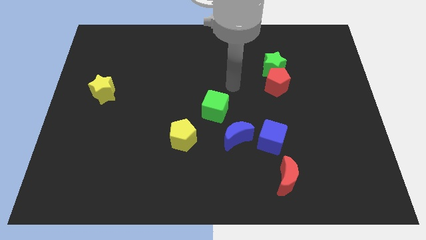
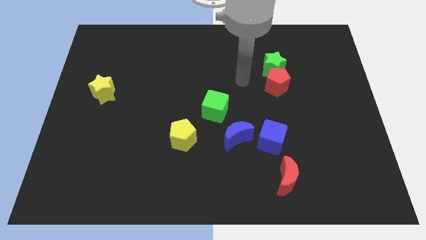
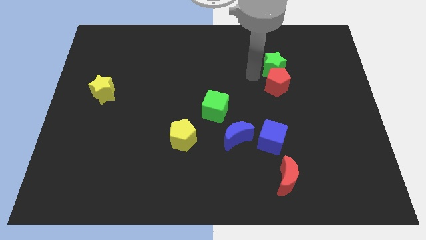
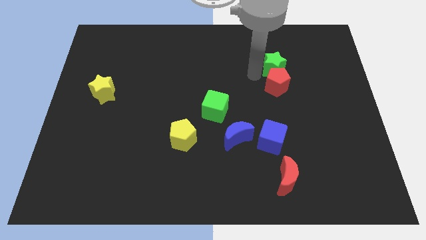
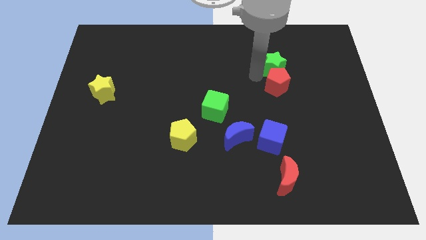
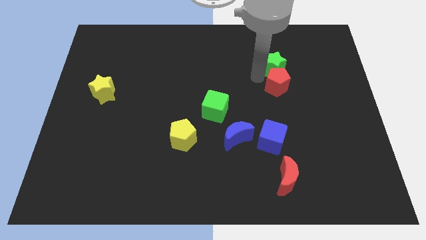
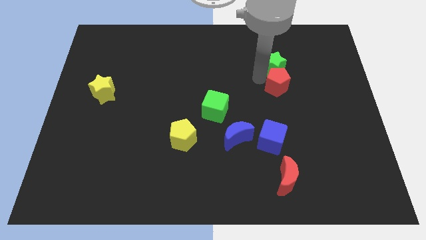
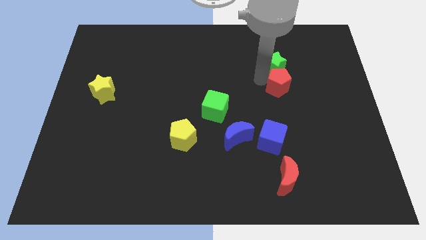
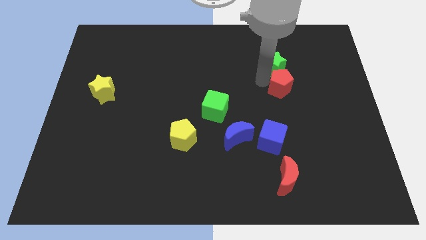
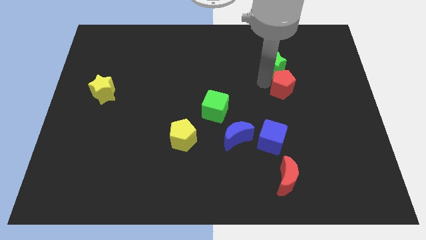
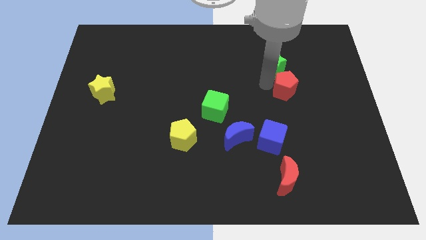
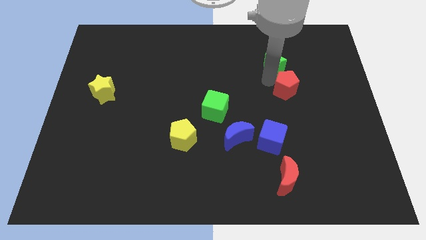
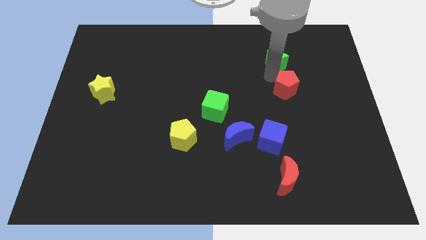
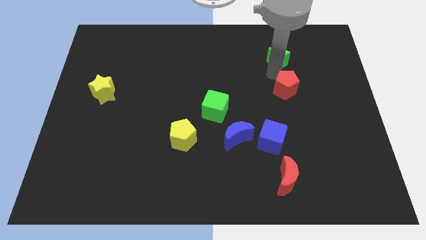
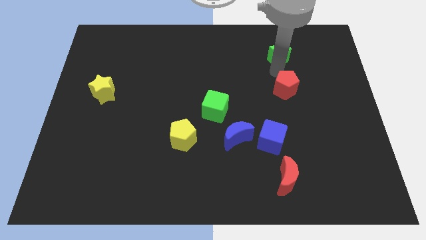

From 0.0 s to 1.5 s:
pull the red pentagon apart from the green star

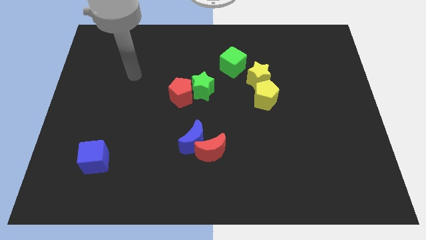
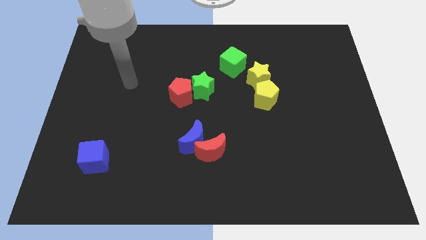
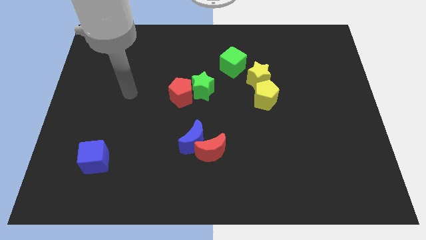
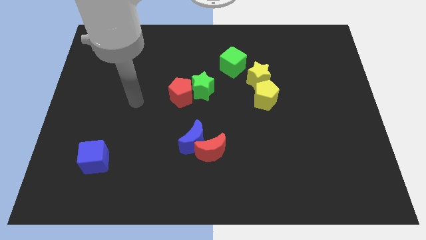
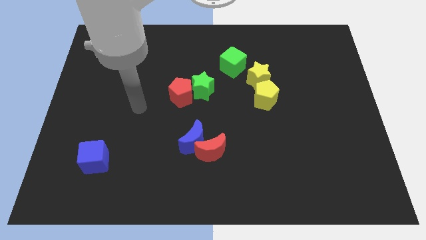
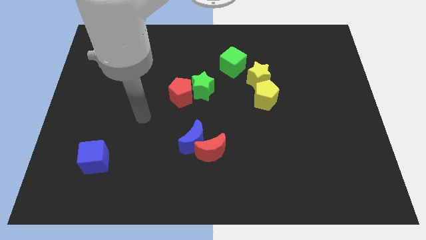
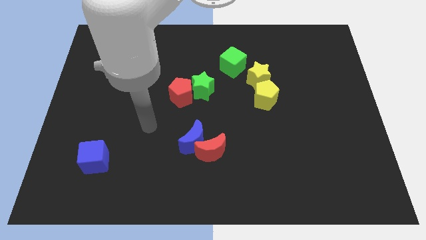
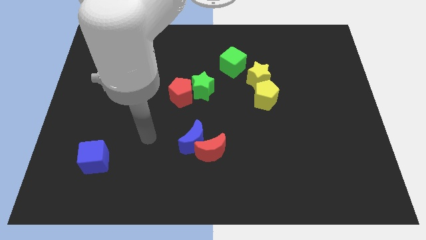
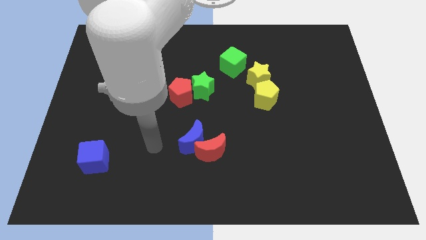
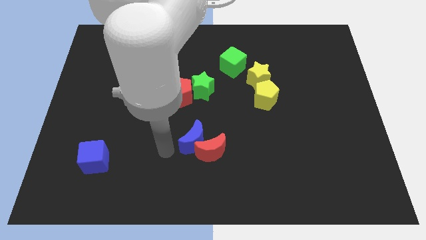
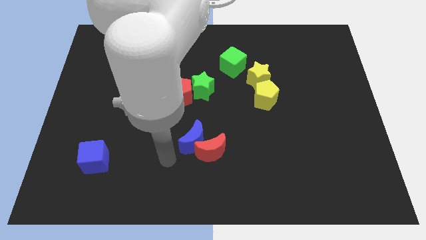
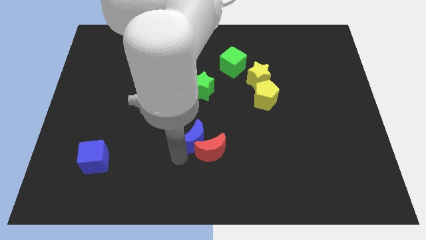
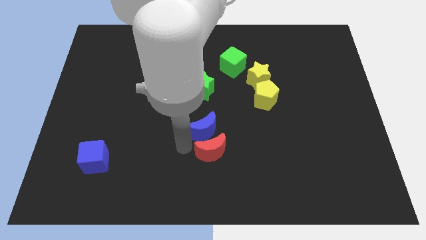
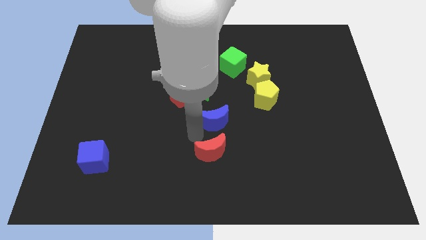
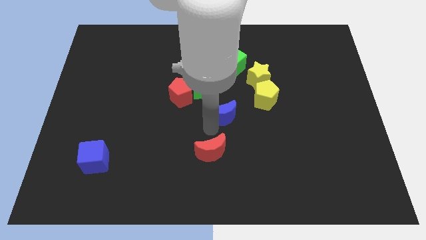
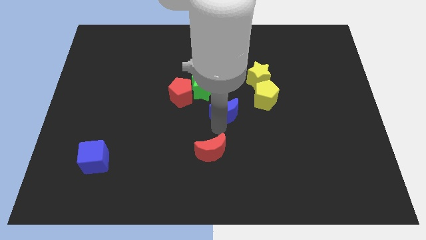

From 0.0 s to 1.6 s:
separate the red moon from the blue moon

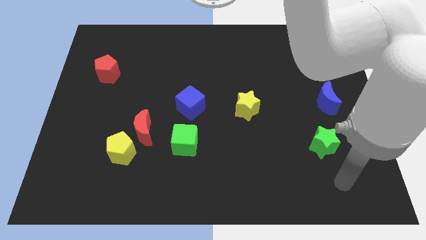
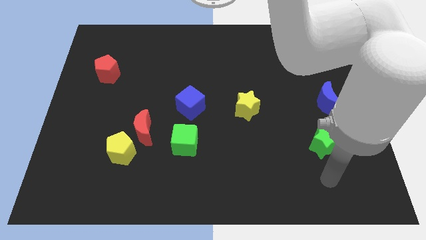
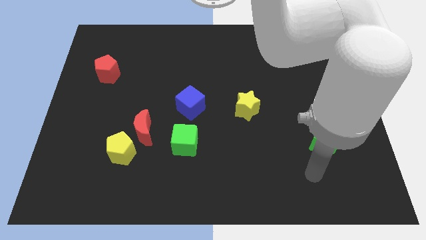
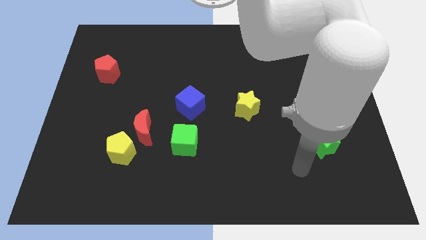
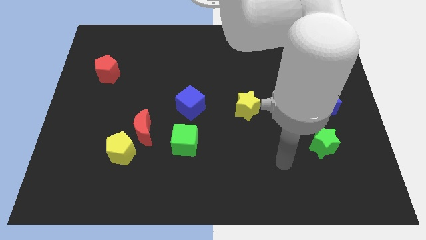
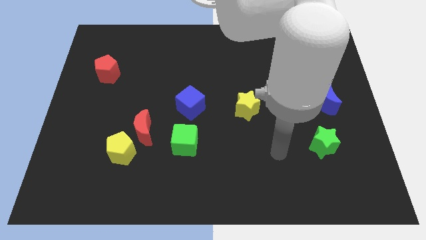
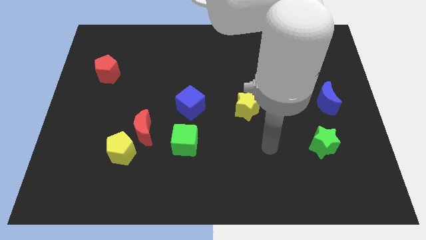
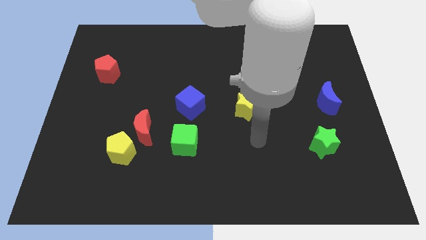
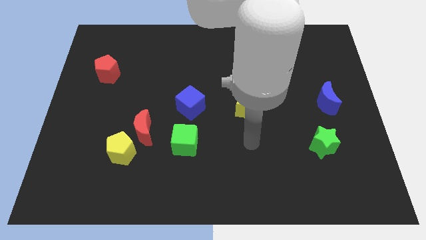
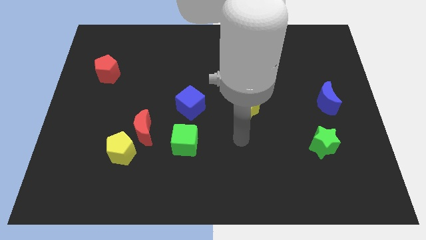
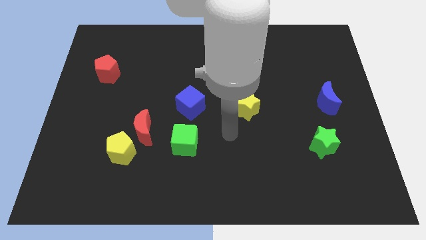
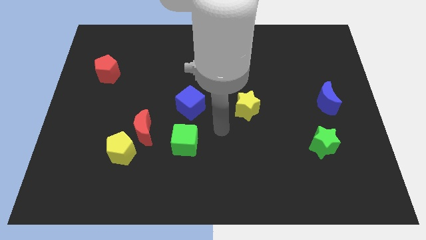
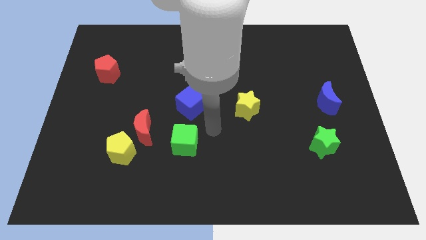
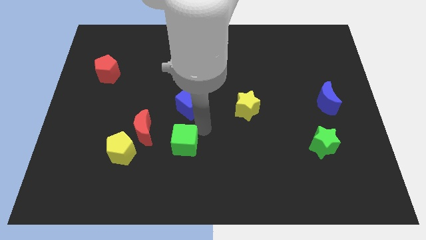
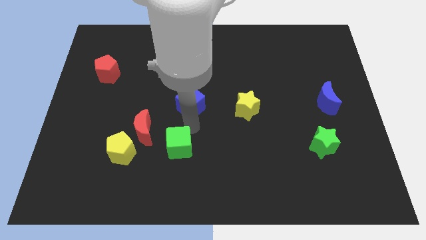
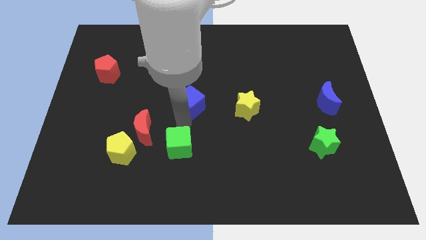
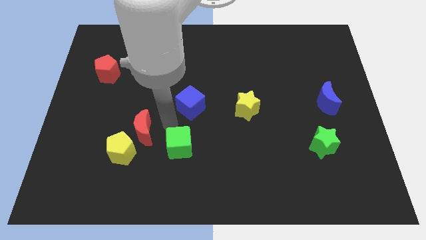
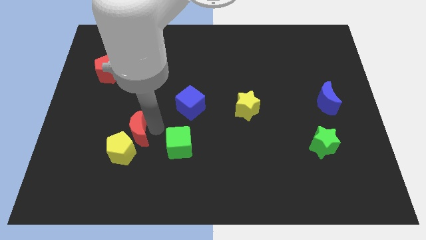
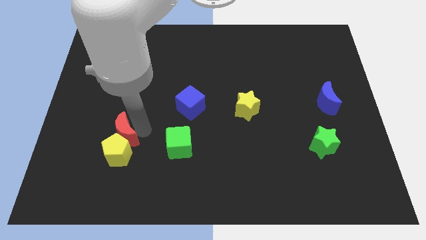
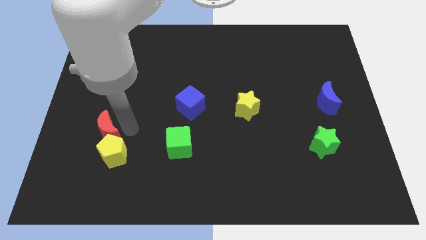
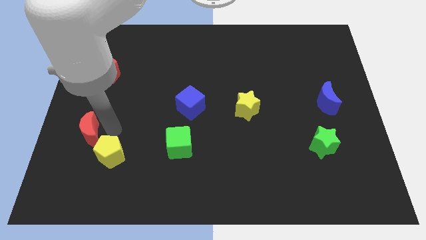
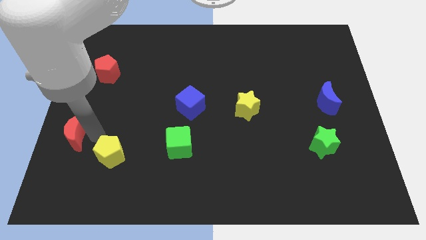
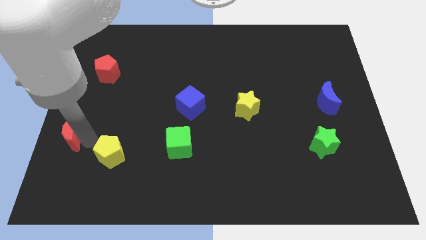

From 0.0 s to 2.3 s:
separate the yellow pentagon from the red moon

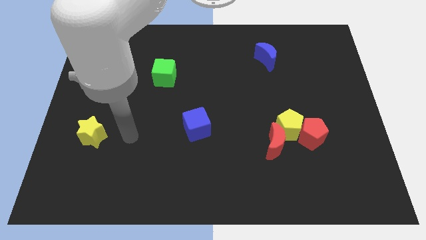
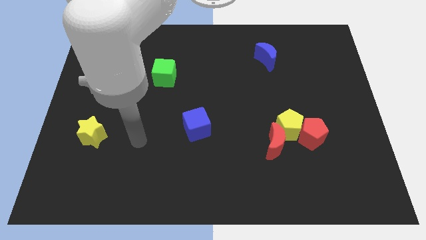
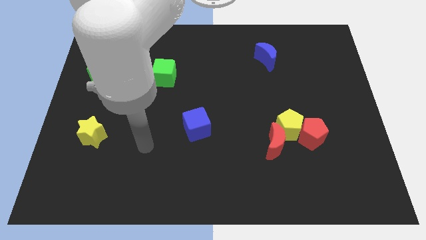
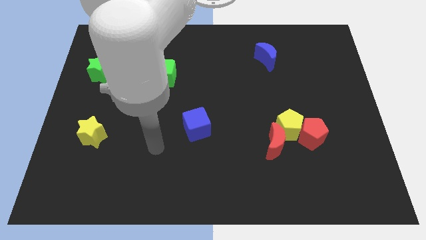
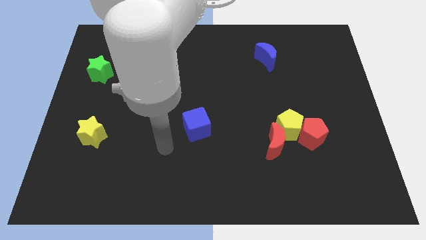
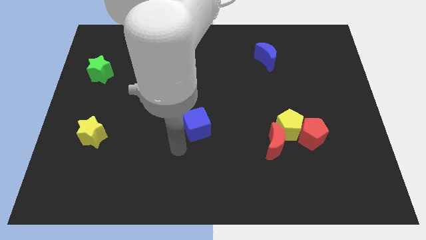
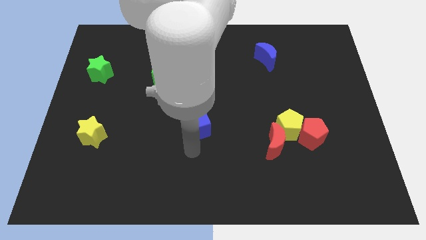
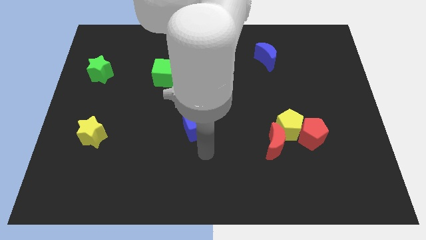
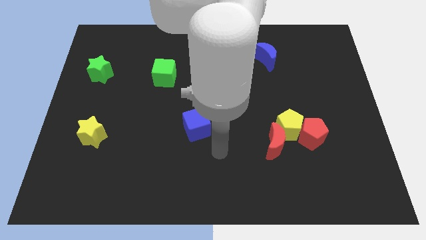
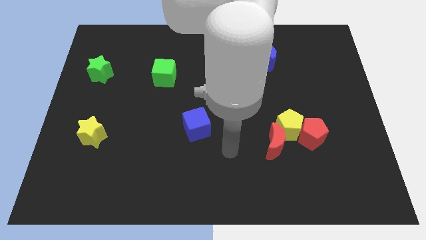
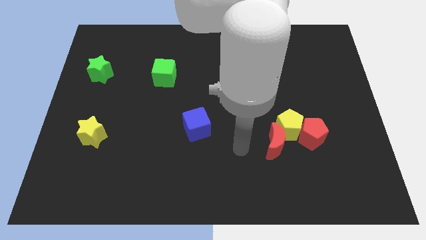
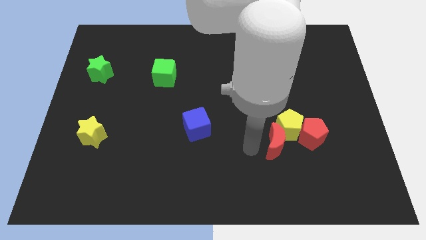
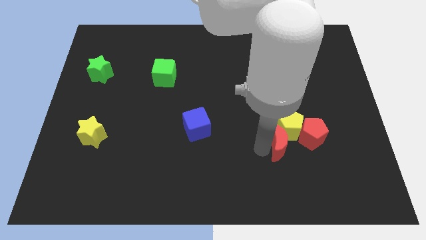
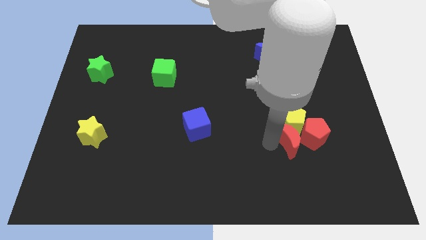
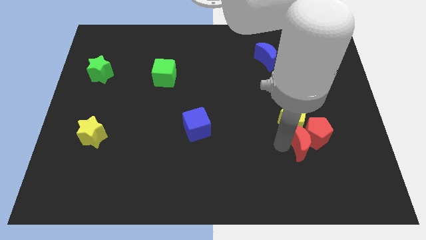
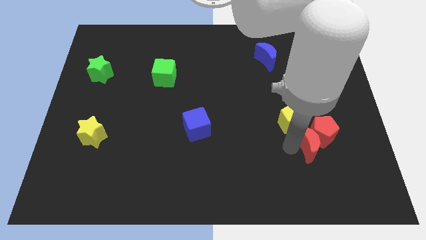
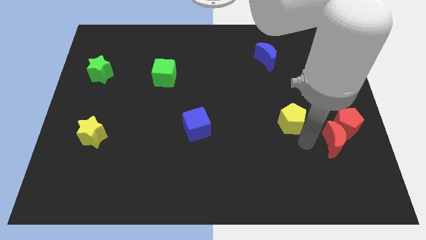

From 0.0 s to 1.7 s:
pull the yellow pentagon apart from the red pentagon and red moon

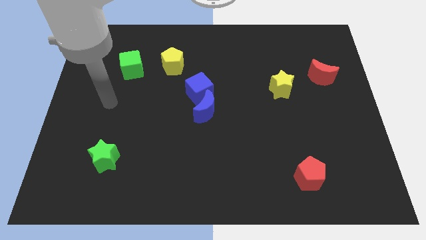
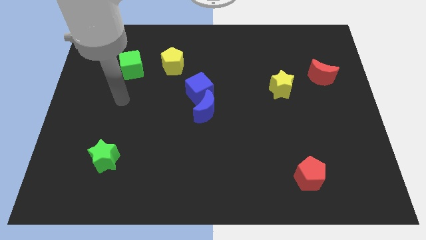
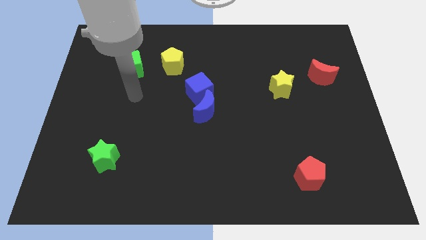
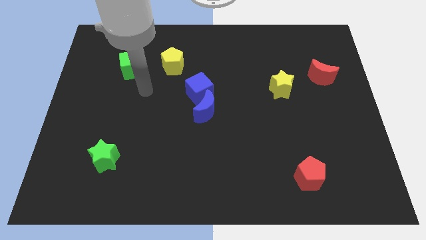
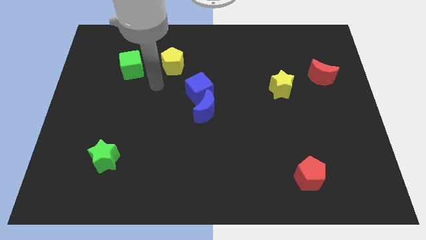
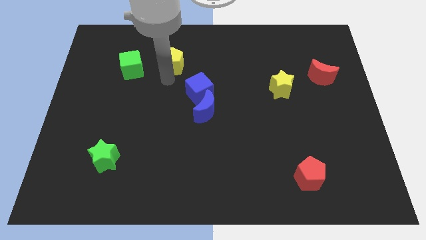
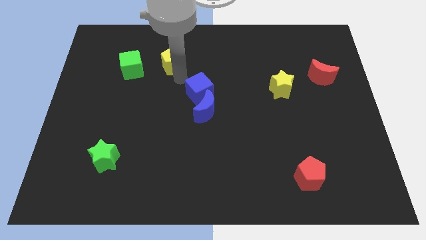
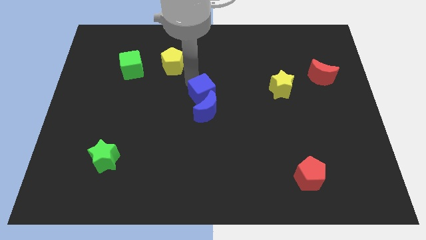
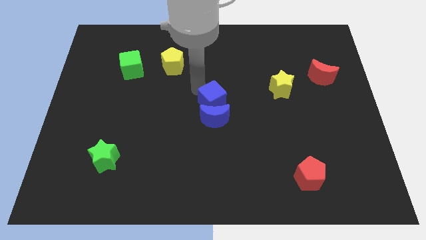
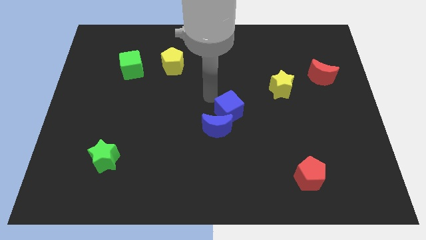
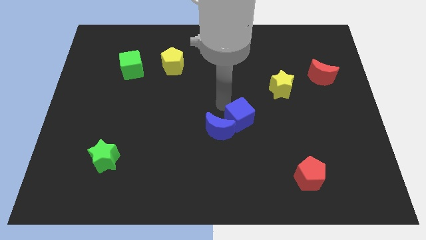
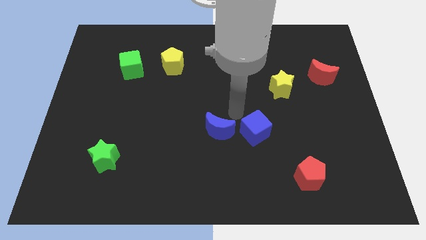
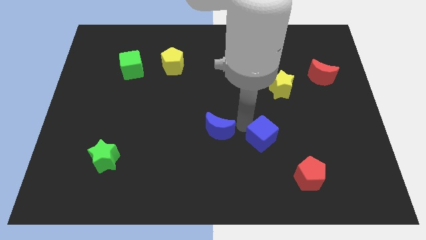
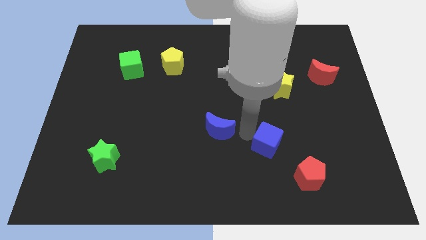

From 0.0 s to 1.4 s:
pull the blue moon apart from the blue cube

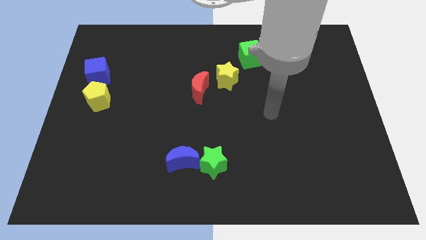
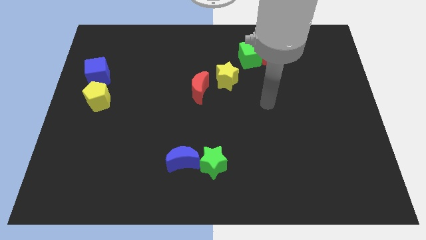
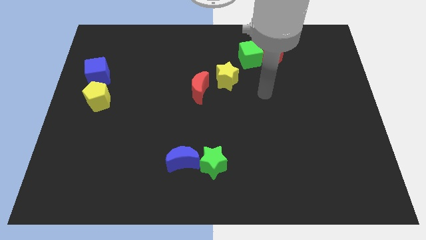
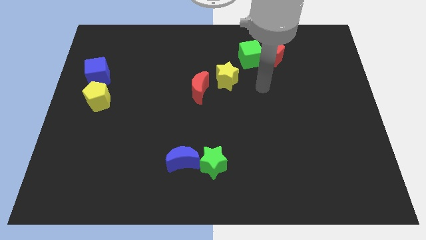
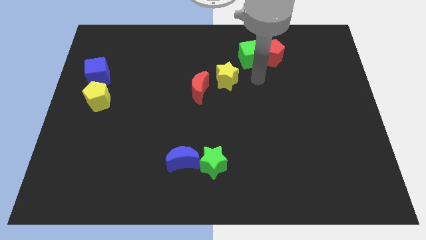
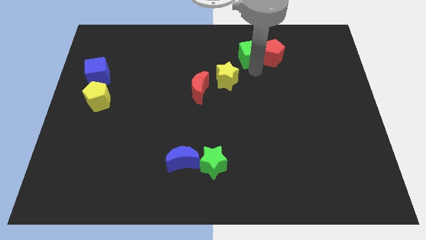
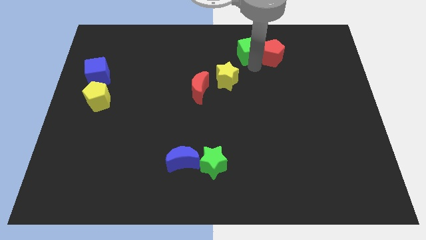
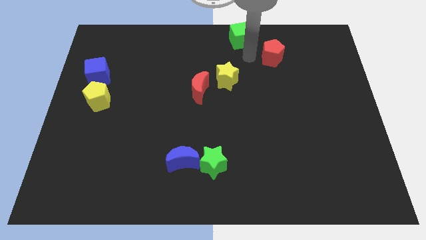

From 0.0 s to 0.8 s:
move the red pentagon away from the green cube

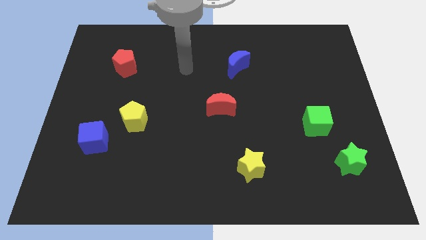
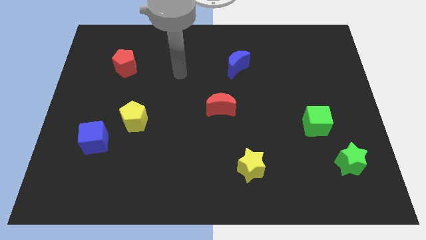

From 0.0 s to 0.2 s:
pull the blue cube apart from the yellow pentagon
